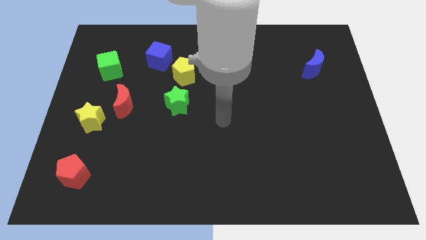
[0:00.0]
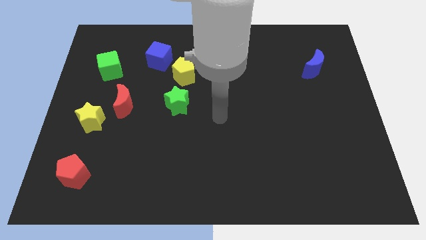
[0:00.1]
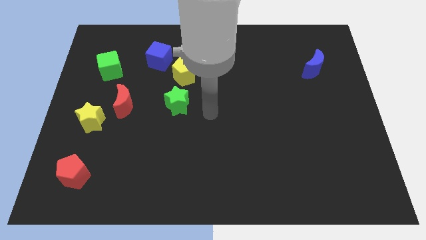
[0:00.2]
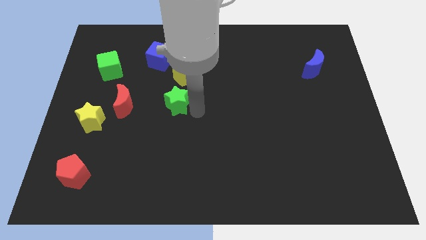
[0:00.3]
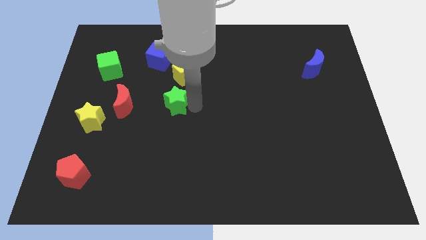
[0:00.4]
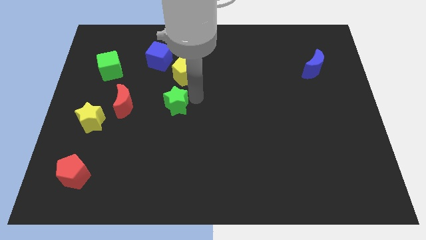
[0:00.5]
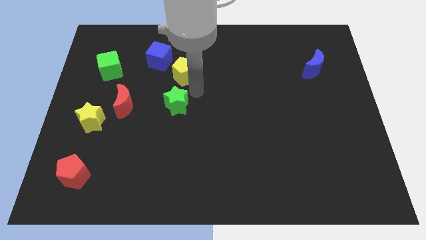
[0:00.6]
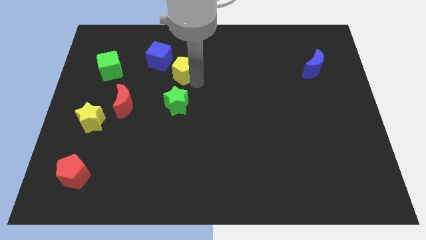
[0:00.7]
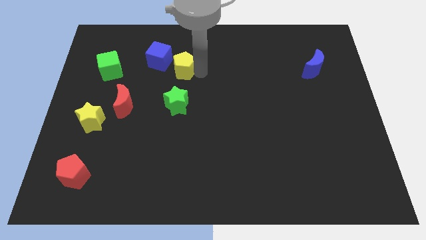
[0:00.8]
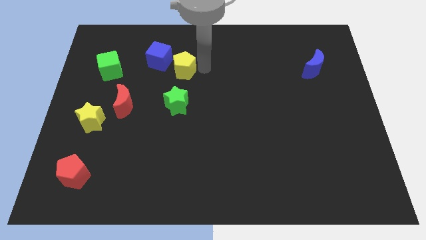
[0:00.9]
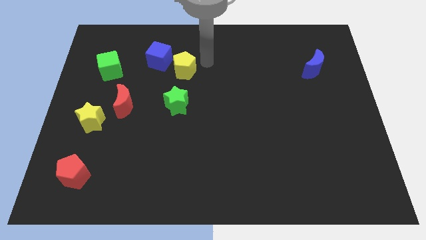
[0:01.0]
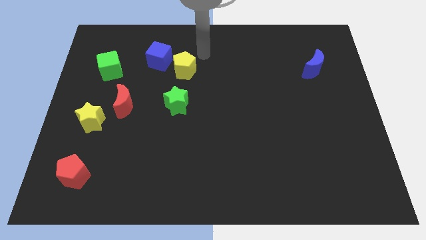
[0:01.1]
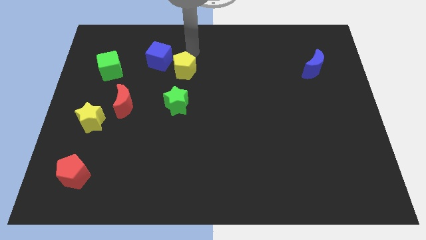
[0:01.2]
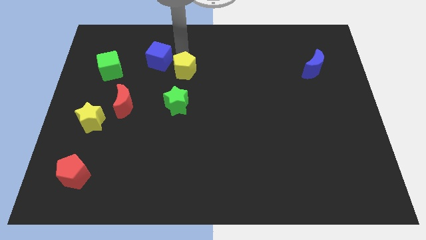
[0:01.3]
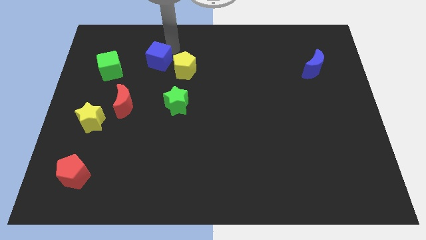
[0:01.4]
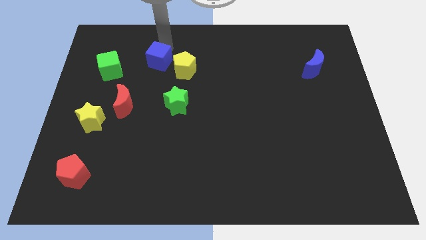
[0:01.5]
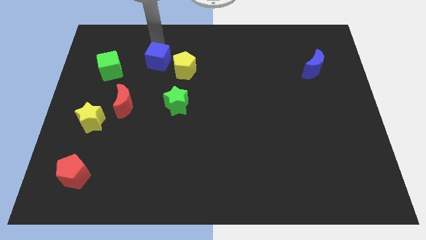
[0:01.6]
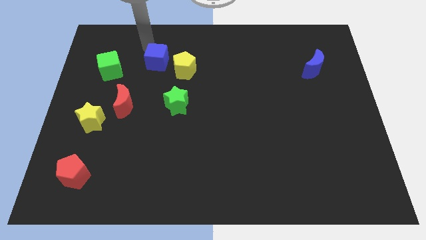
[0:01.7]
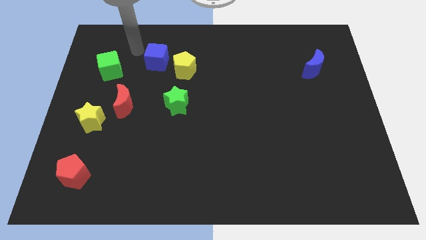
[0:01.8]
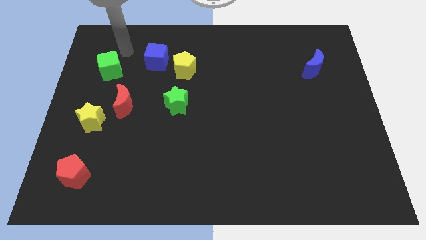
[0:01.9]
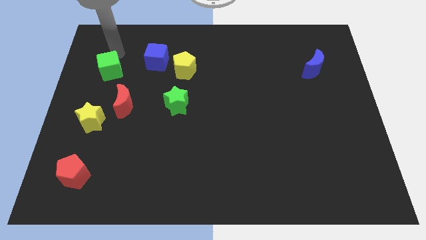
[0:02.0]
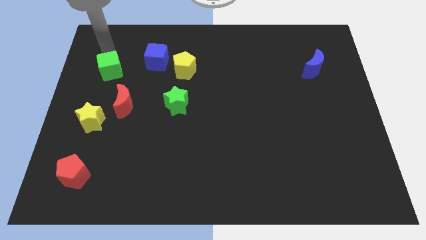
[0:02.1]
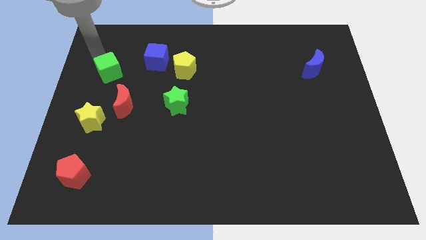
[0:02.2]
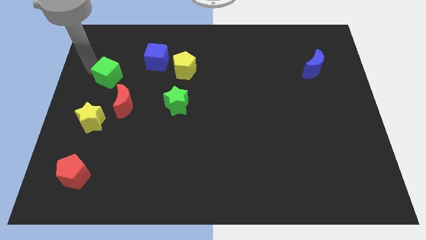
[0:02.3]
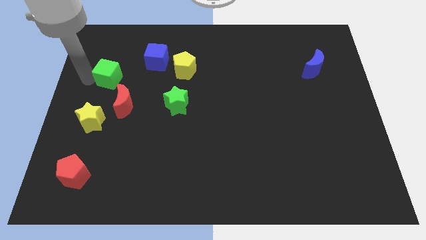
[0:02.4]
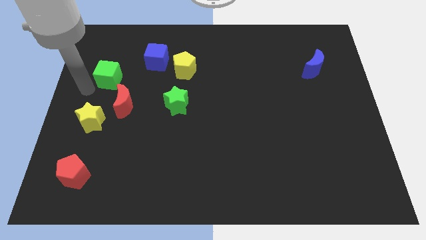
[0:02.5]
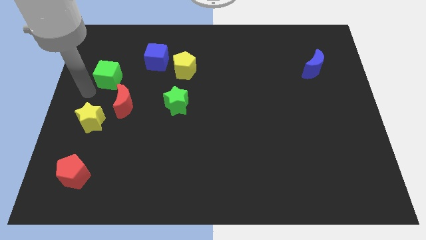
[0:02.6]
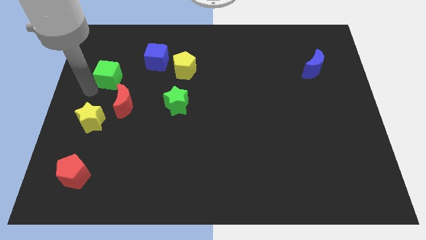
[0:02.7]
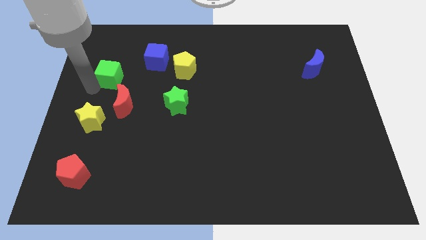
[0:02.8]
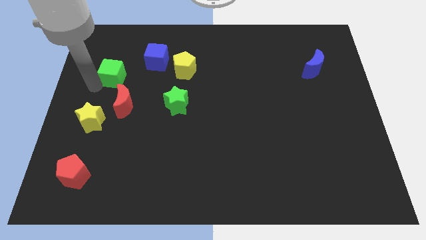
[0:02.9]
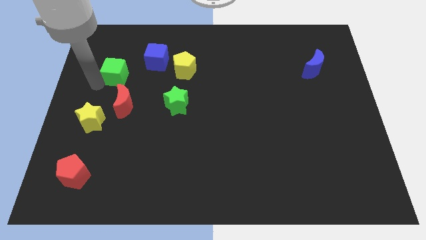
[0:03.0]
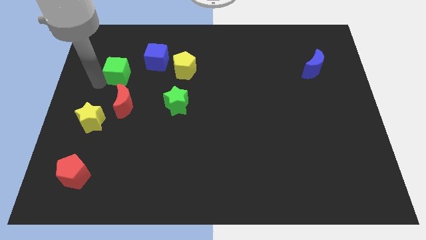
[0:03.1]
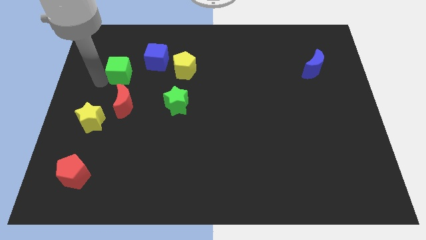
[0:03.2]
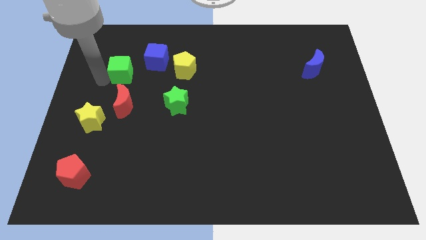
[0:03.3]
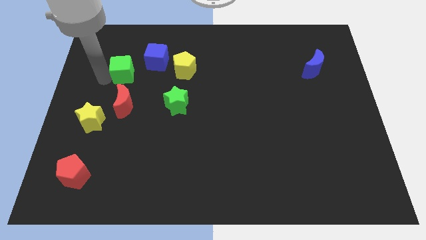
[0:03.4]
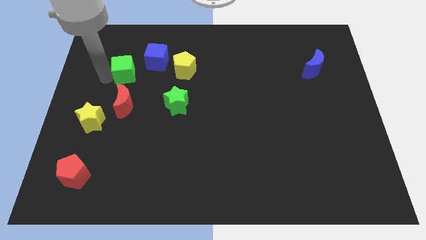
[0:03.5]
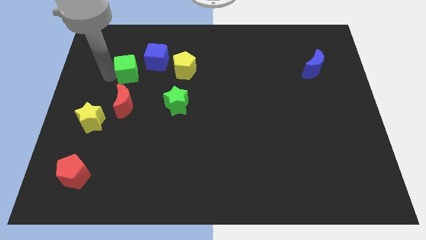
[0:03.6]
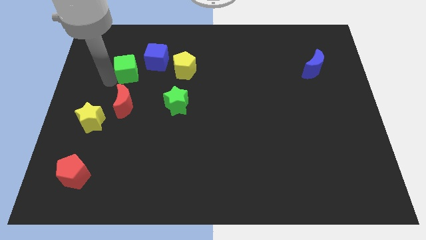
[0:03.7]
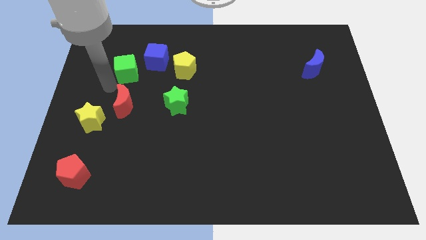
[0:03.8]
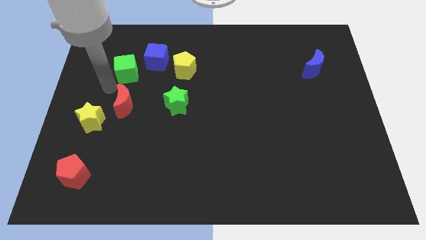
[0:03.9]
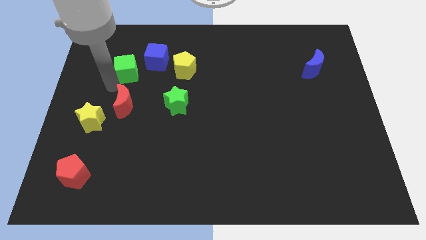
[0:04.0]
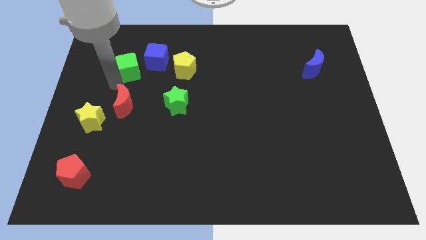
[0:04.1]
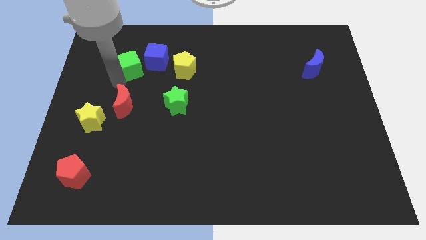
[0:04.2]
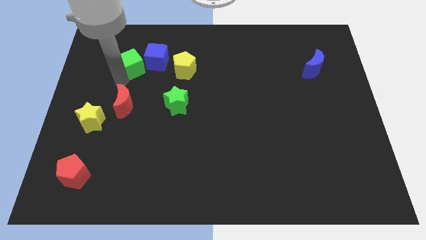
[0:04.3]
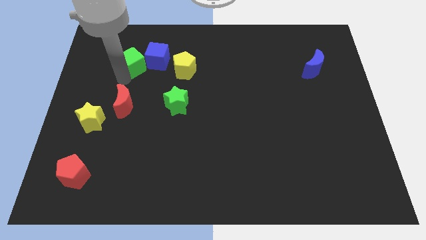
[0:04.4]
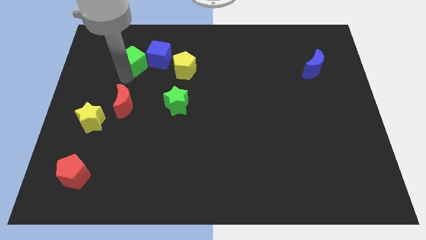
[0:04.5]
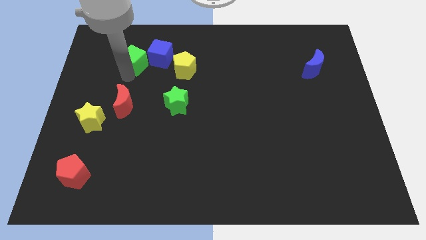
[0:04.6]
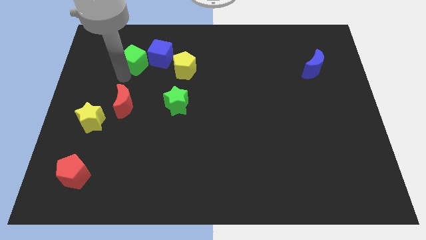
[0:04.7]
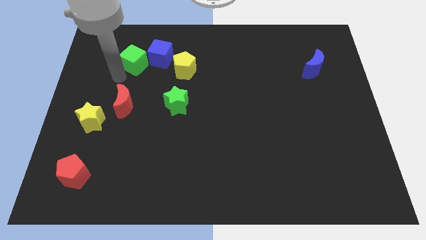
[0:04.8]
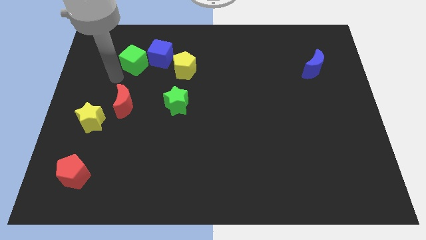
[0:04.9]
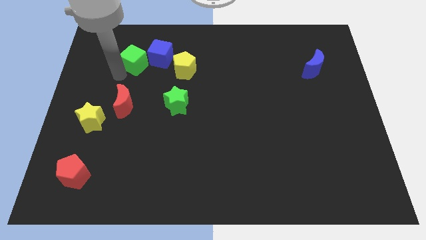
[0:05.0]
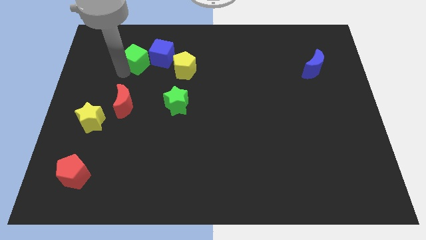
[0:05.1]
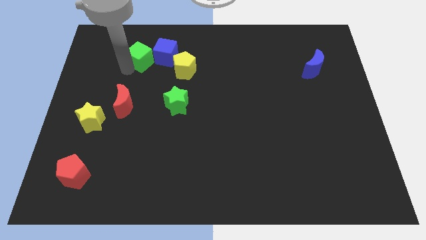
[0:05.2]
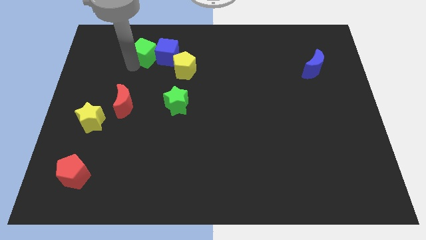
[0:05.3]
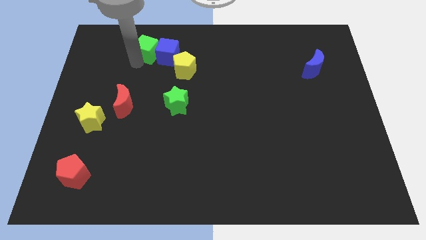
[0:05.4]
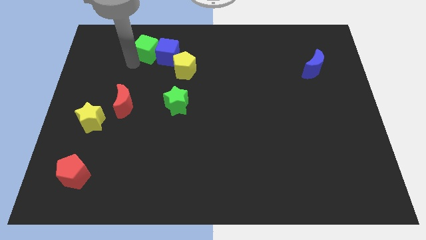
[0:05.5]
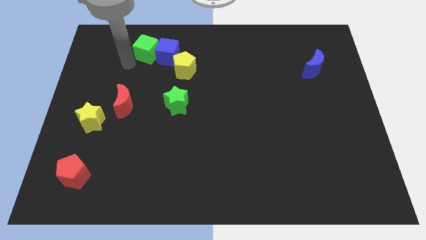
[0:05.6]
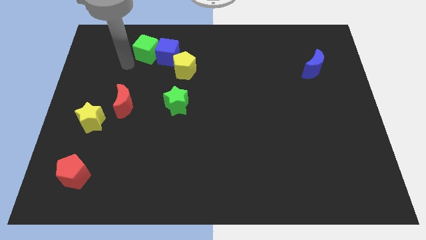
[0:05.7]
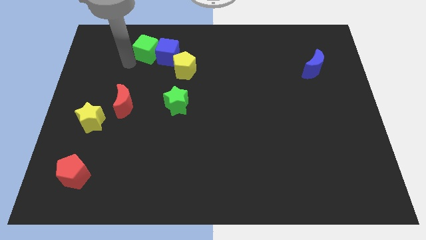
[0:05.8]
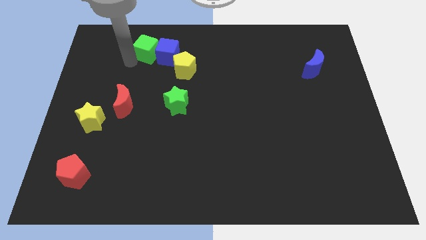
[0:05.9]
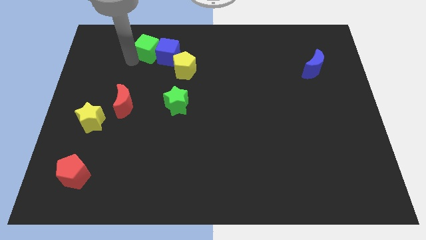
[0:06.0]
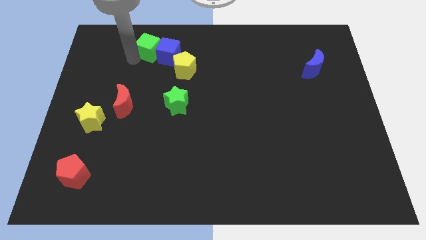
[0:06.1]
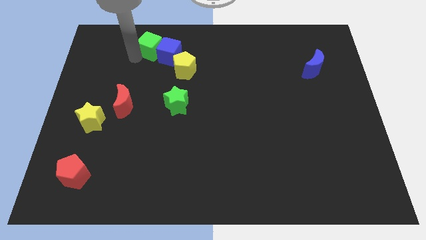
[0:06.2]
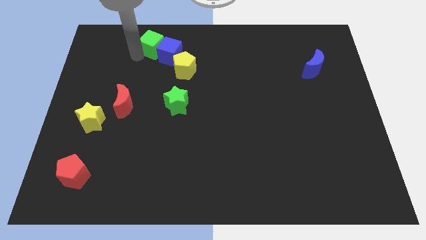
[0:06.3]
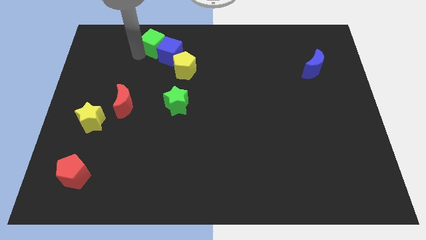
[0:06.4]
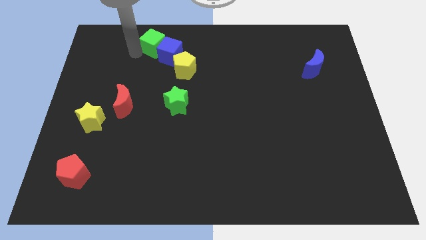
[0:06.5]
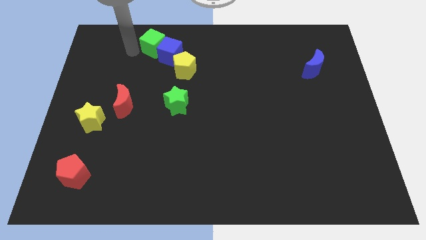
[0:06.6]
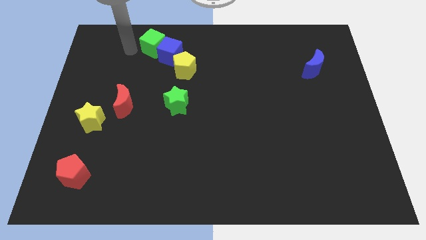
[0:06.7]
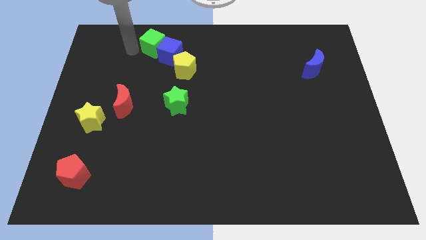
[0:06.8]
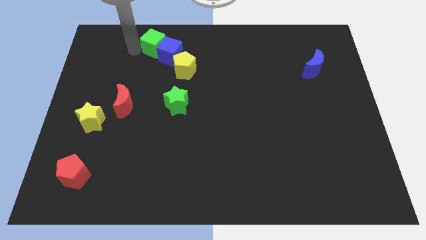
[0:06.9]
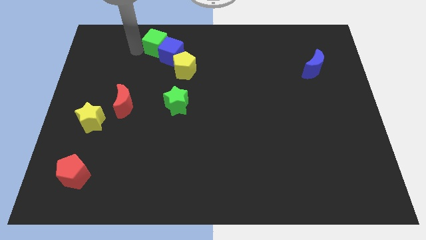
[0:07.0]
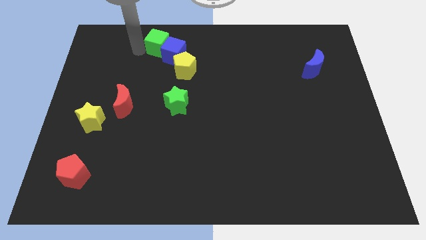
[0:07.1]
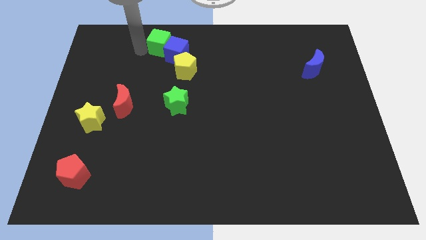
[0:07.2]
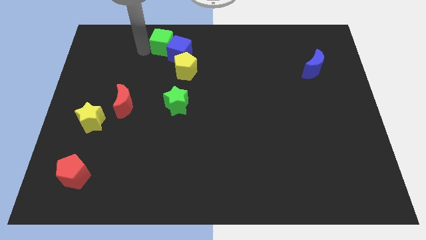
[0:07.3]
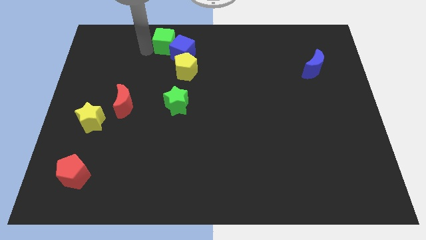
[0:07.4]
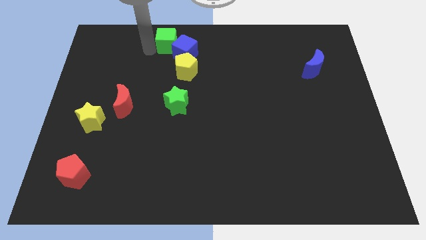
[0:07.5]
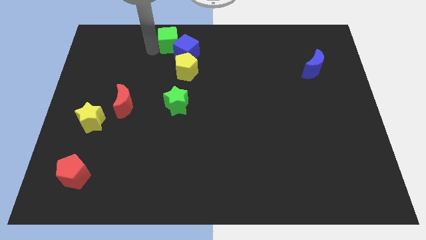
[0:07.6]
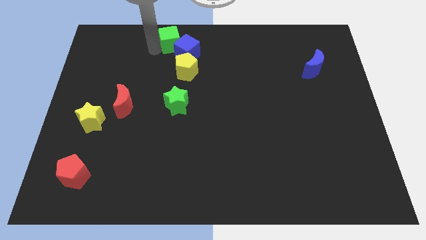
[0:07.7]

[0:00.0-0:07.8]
put the green cube to the top
